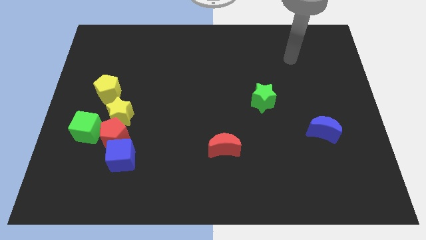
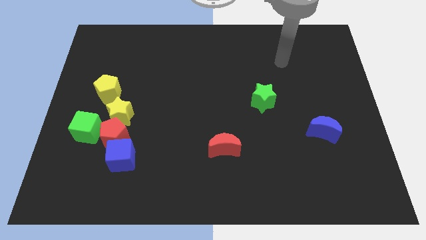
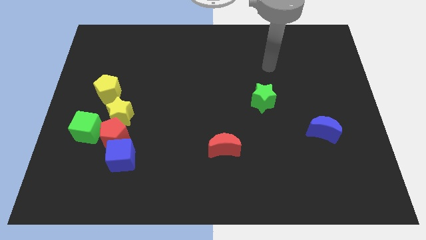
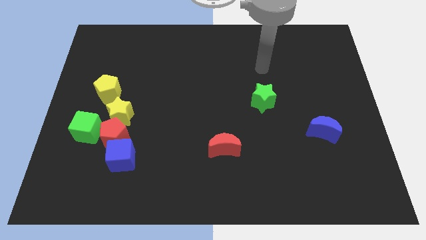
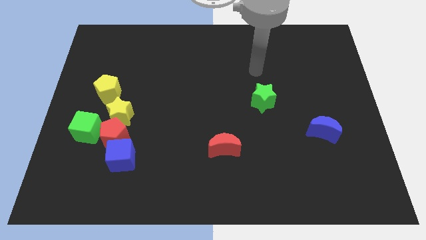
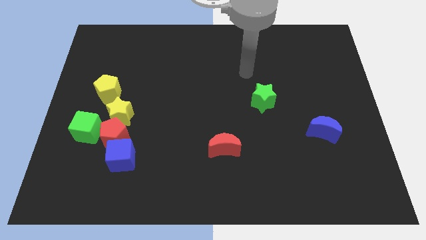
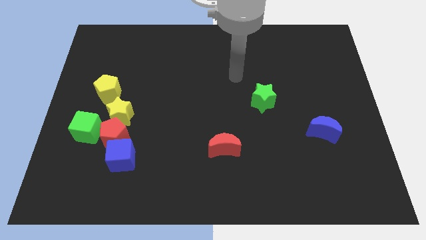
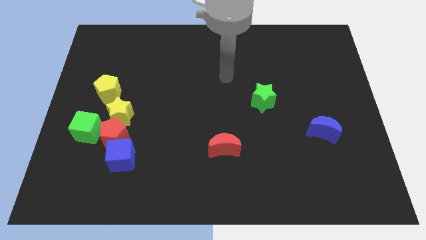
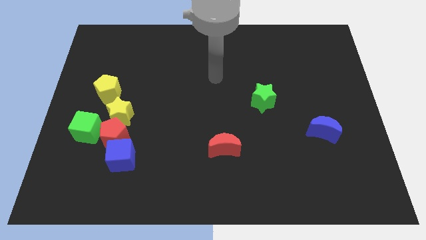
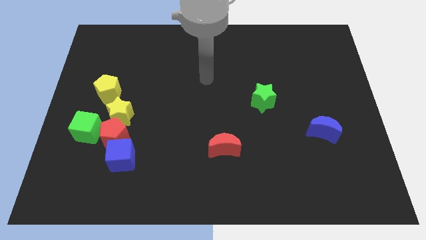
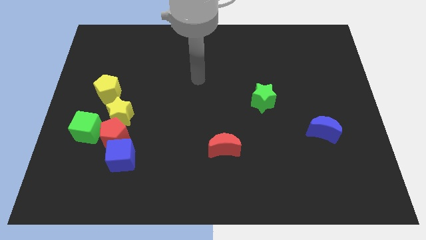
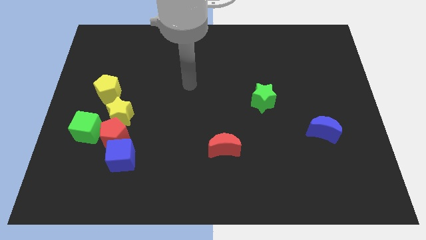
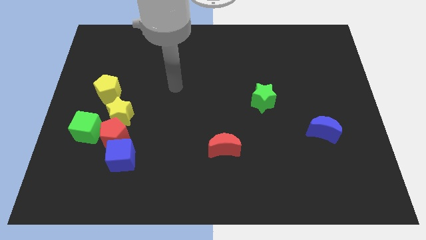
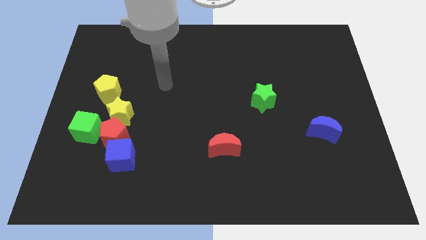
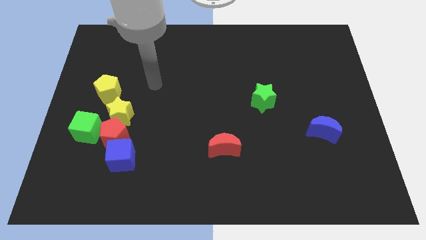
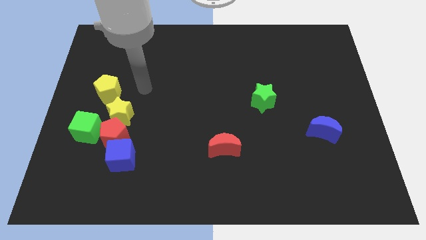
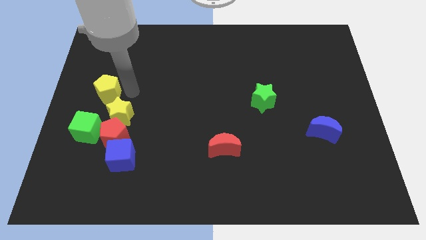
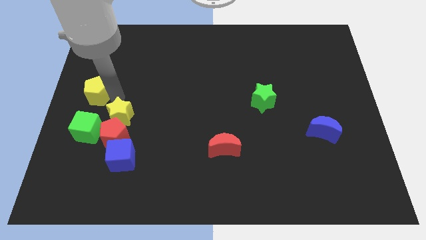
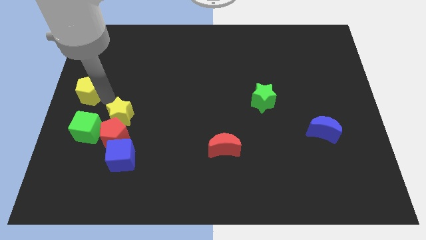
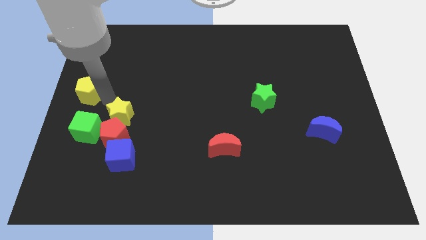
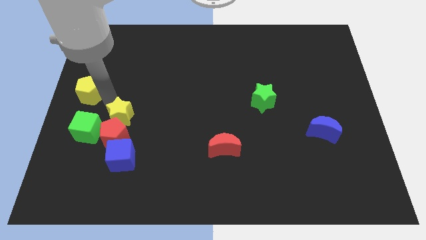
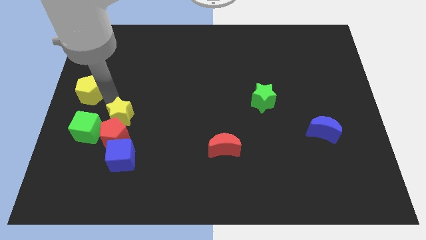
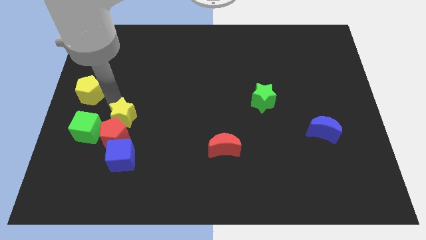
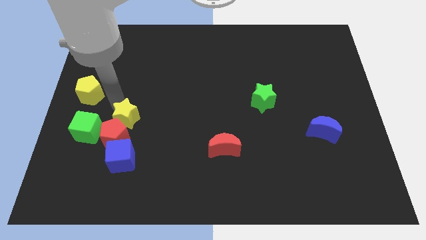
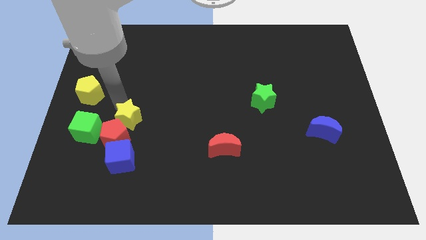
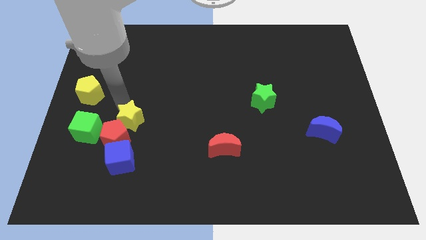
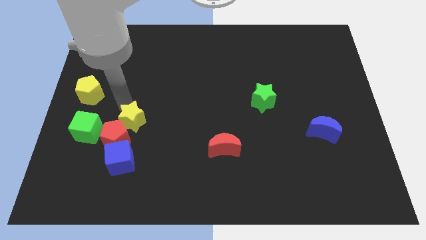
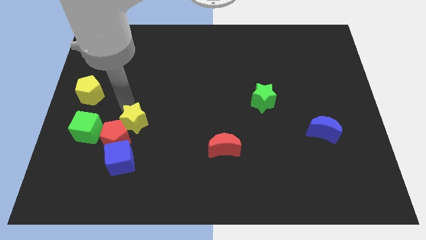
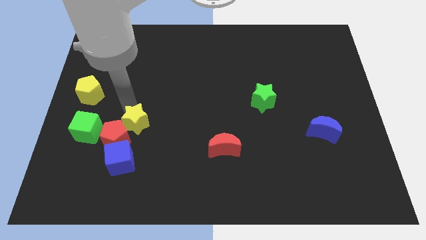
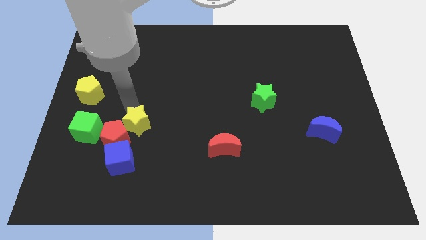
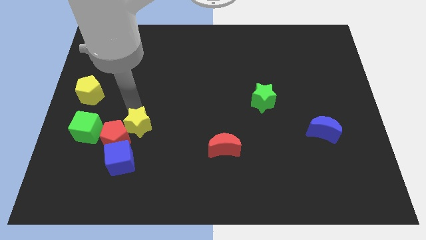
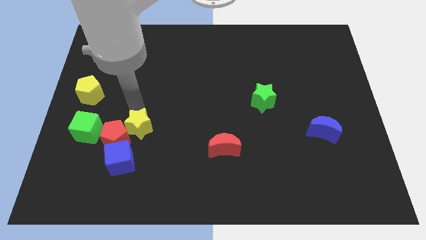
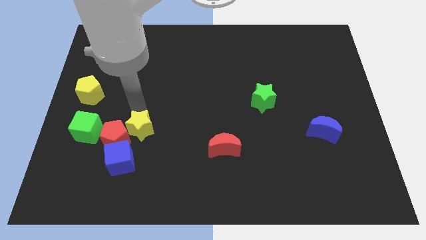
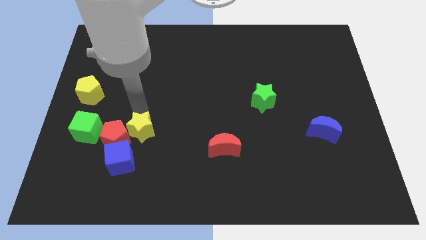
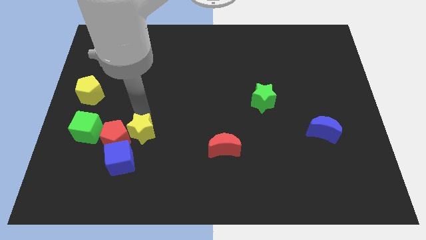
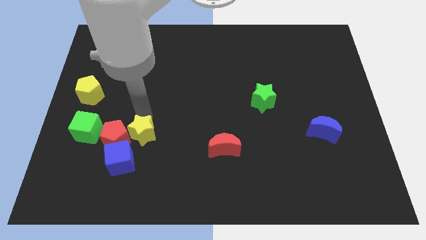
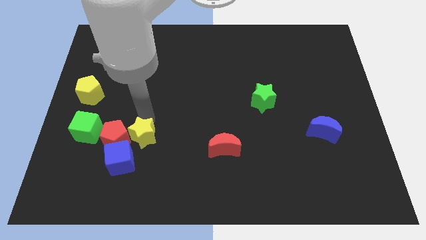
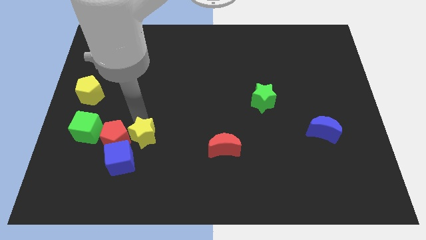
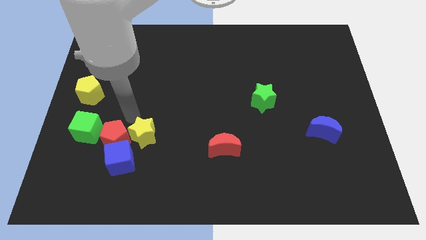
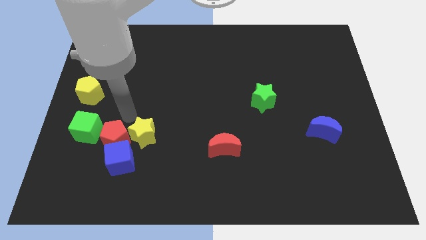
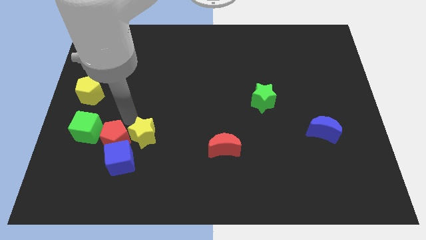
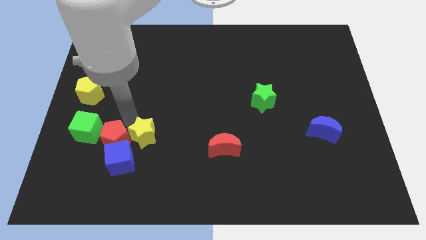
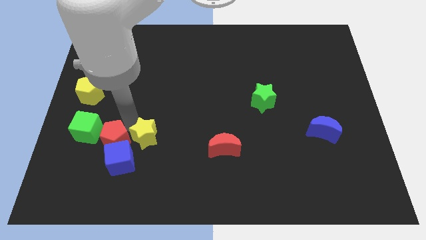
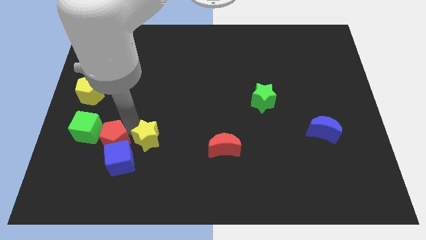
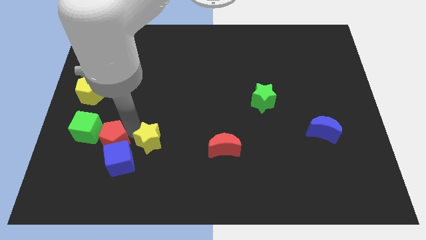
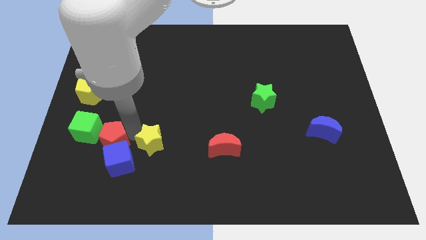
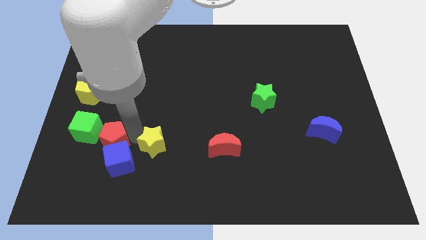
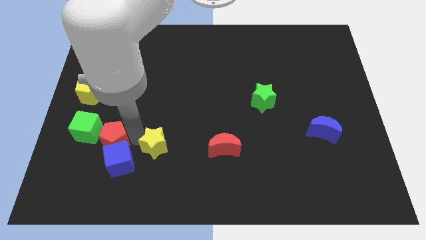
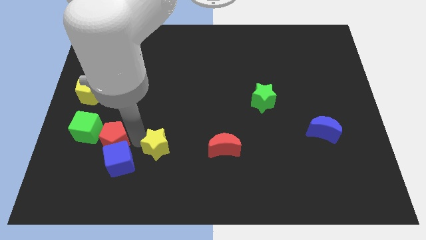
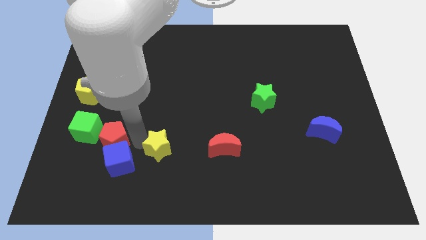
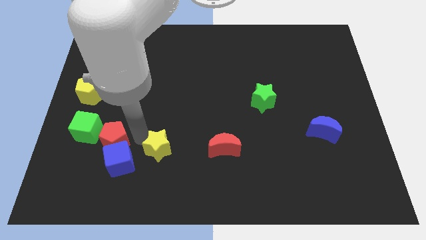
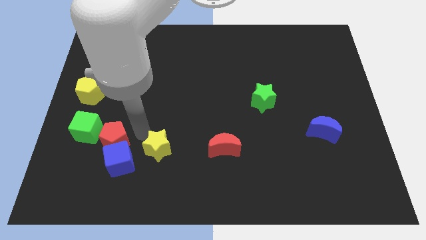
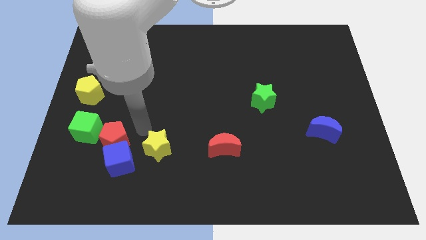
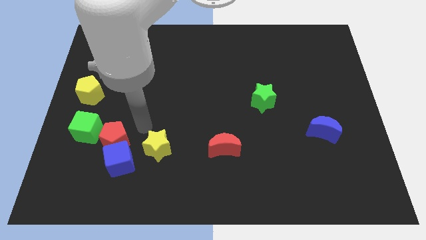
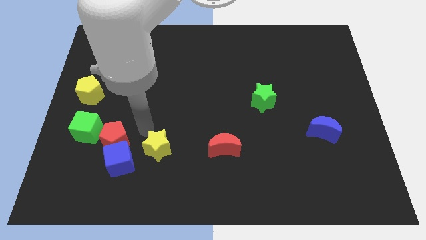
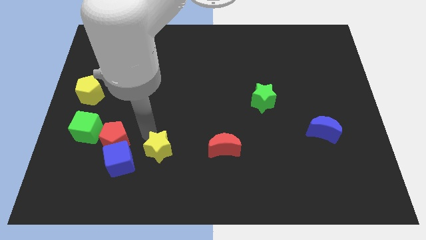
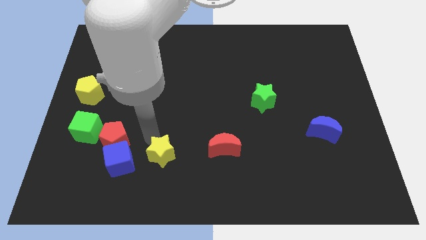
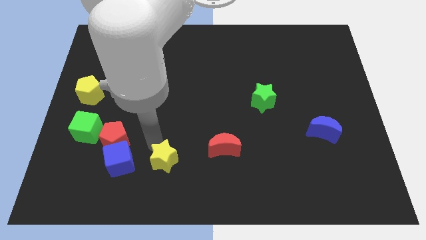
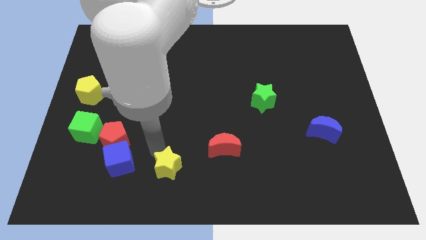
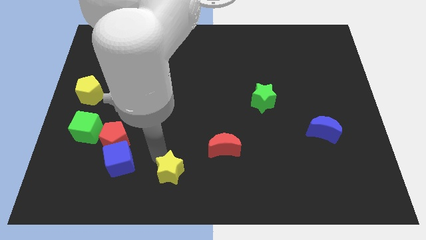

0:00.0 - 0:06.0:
push the yellow star to the bottom

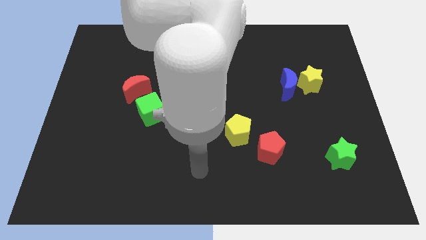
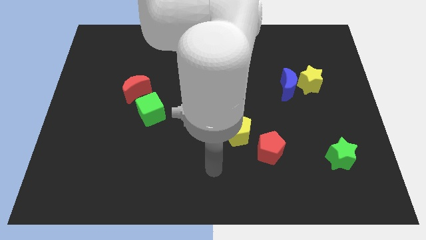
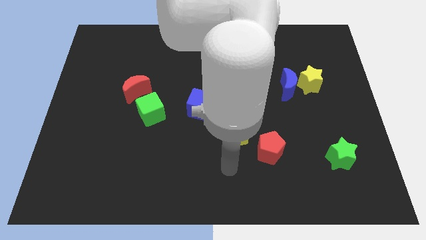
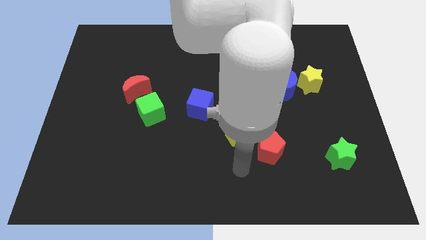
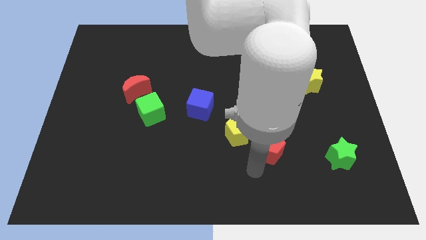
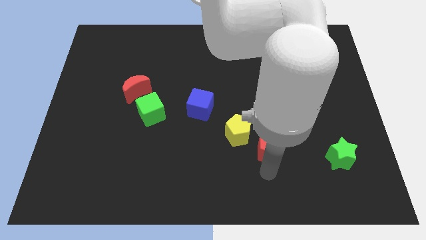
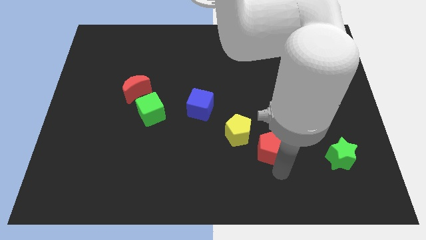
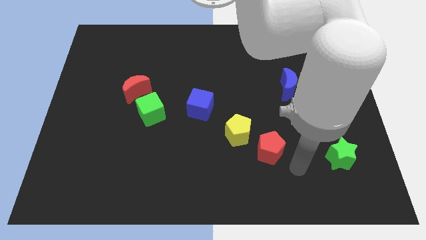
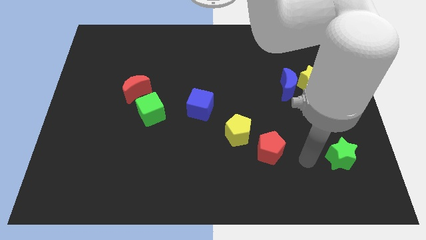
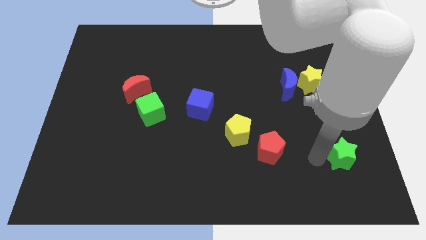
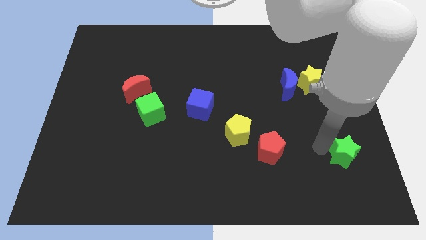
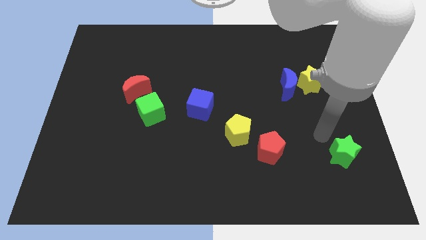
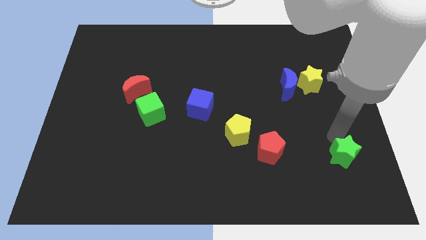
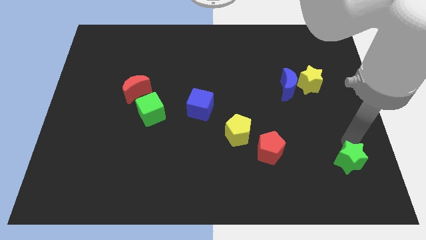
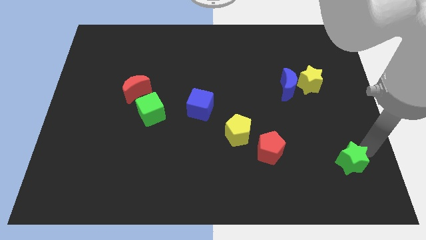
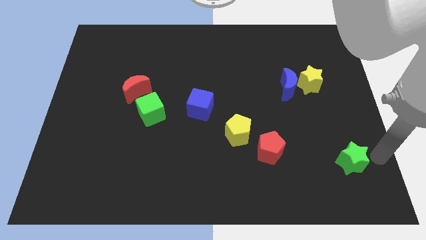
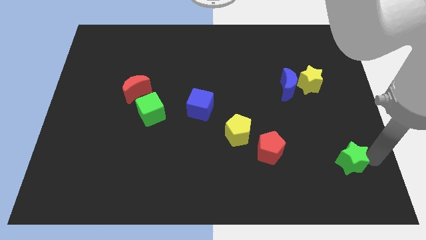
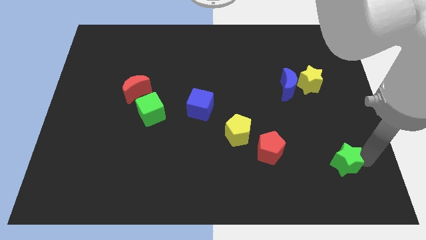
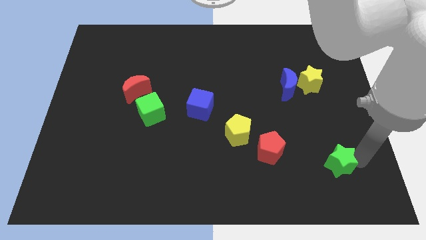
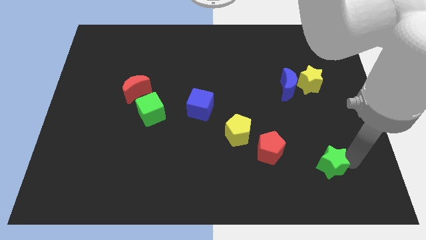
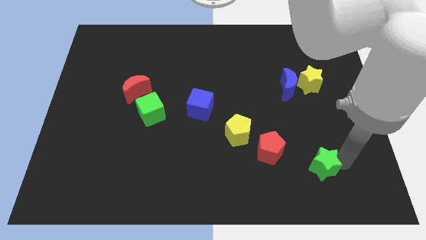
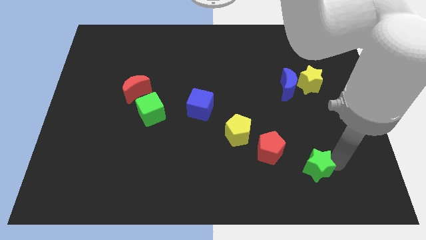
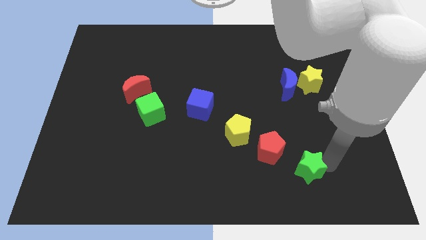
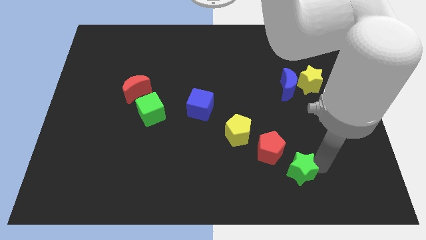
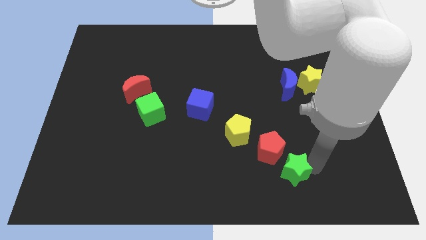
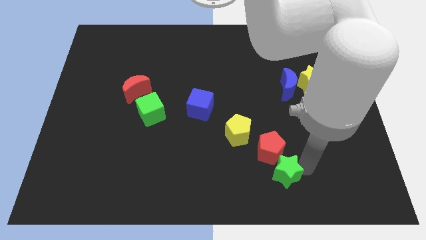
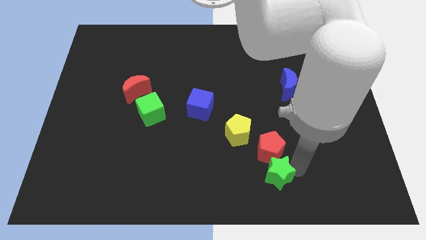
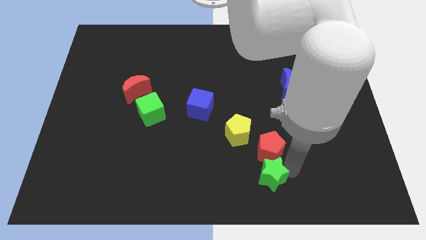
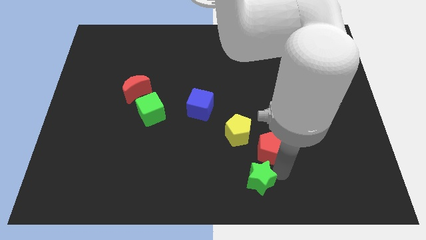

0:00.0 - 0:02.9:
push the green star to the bottom side
